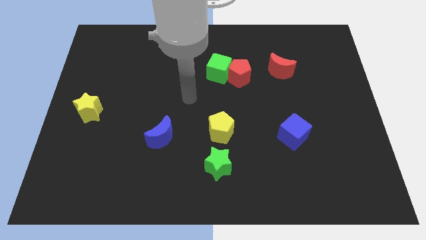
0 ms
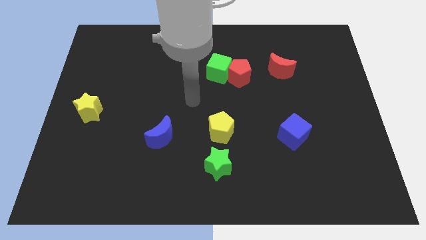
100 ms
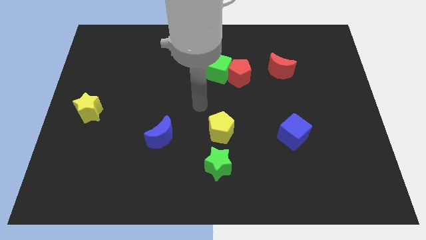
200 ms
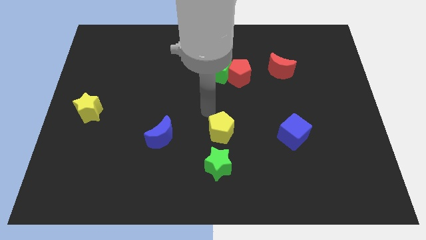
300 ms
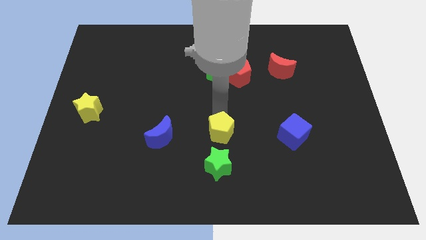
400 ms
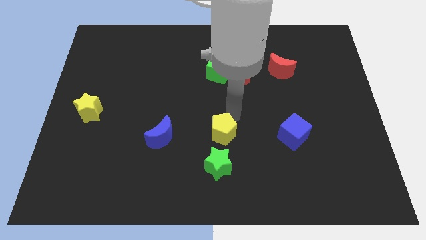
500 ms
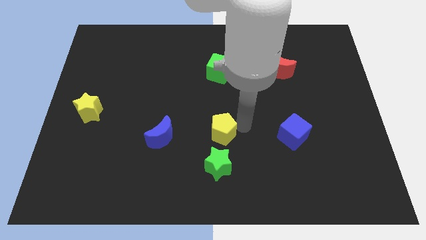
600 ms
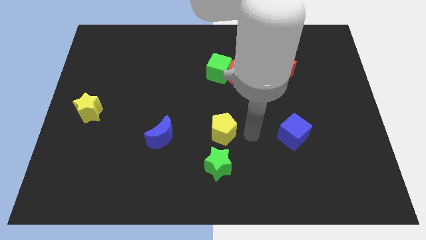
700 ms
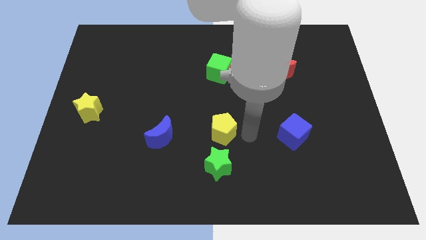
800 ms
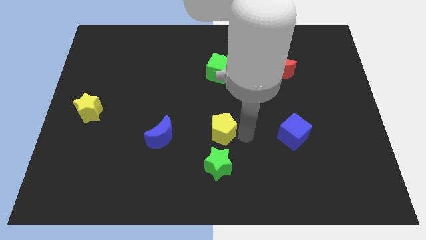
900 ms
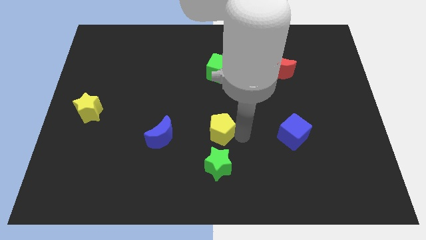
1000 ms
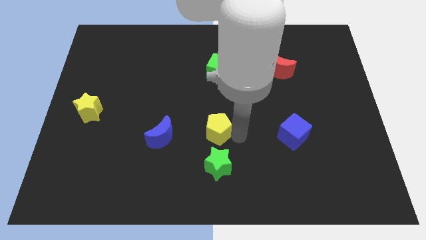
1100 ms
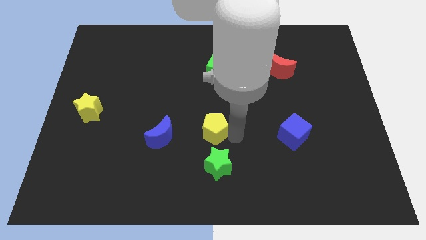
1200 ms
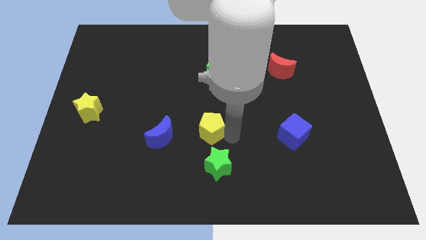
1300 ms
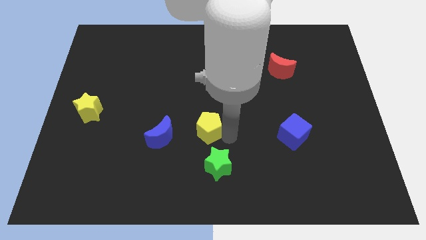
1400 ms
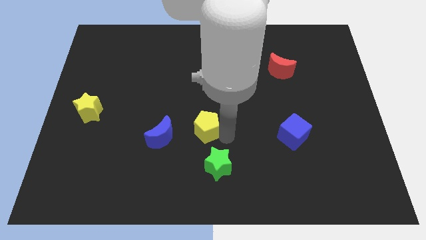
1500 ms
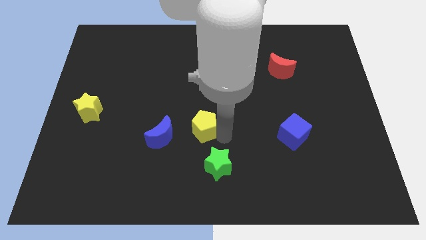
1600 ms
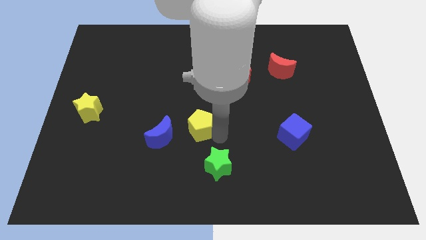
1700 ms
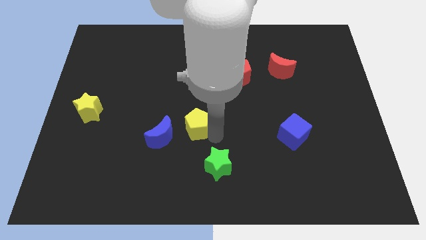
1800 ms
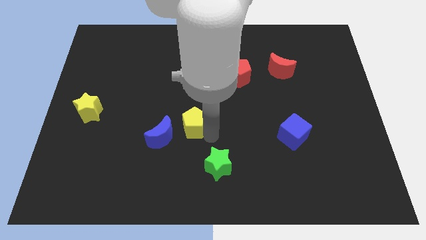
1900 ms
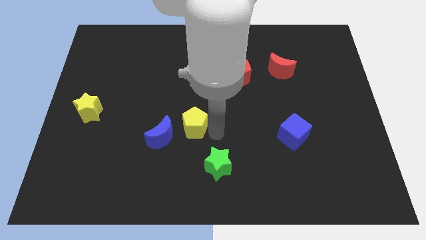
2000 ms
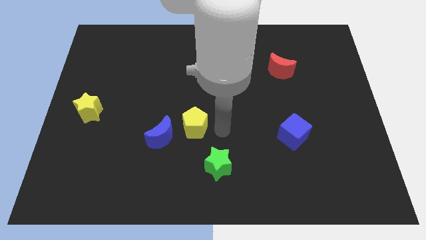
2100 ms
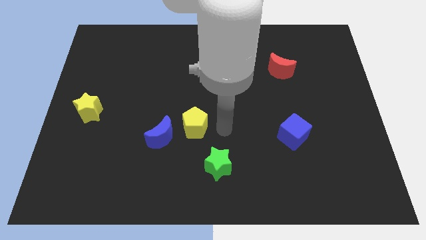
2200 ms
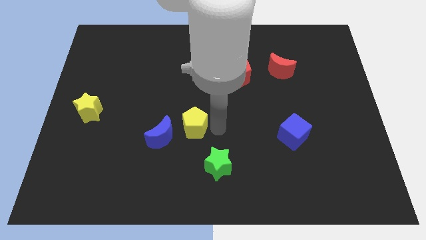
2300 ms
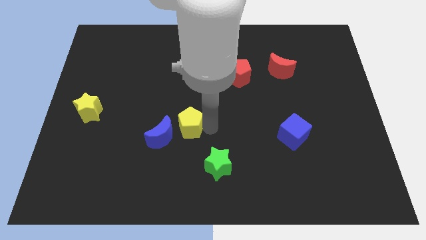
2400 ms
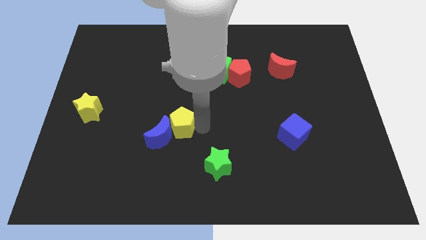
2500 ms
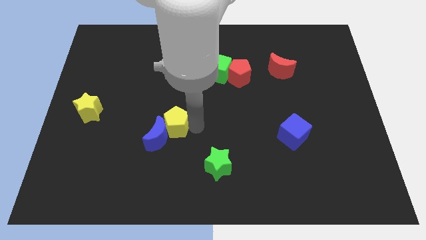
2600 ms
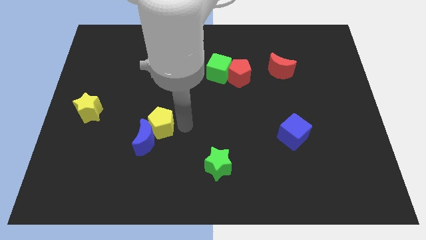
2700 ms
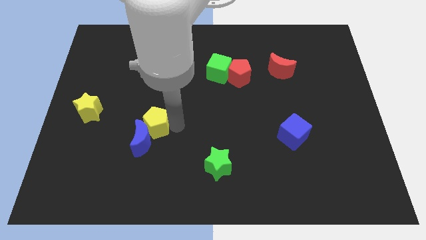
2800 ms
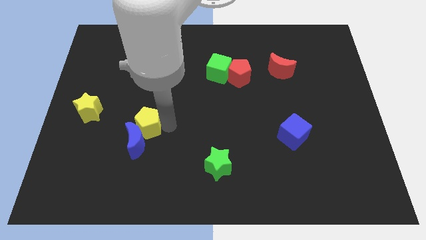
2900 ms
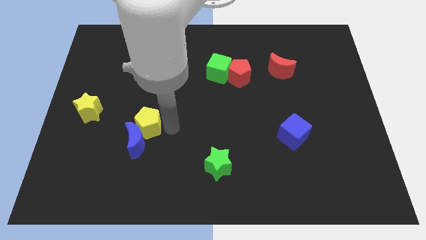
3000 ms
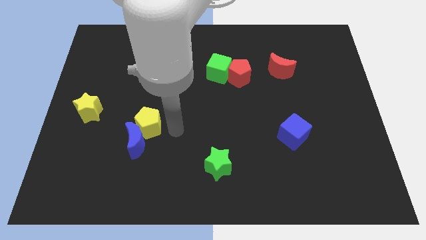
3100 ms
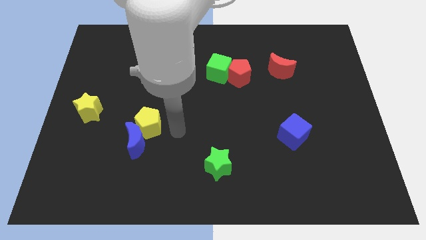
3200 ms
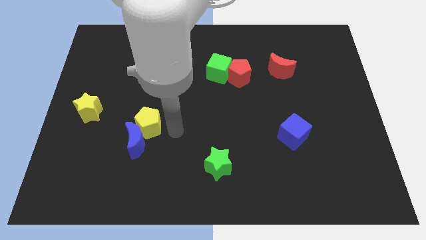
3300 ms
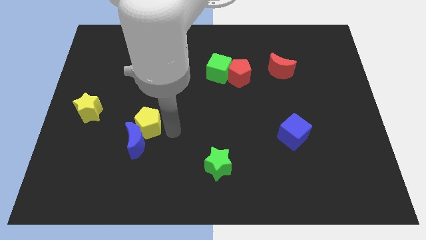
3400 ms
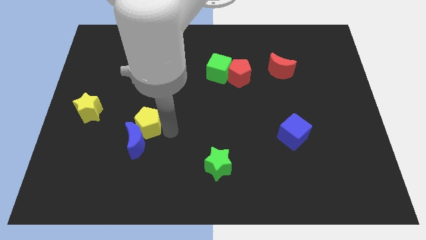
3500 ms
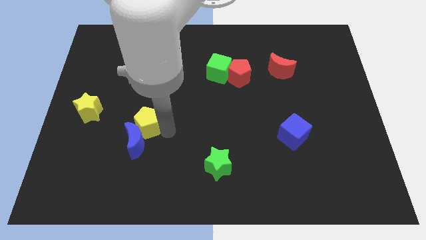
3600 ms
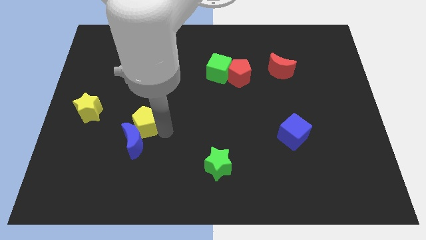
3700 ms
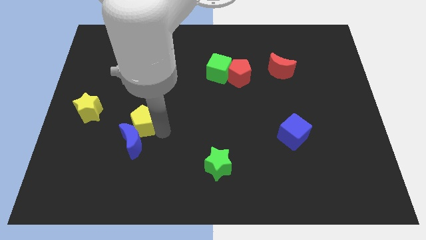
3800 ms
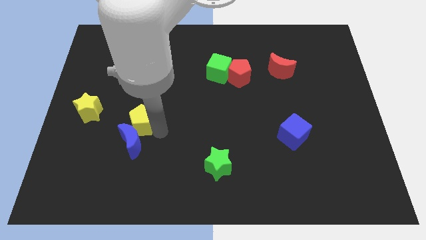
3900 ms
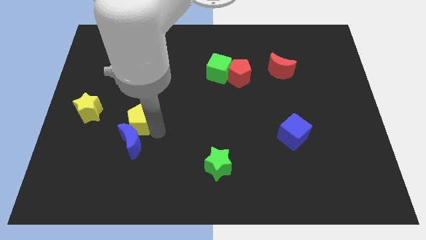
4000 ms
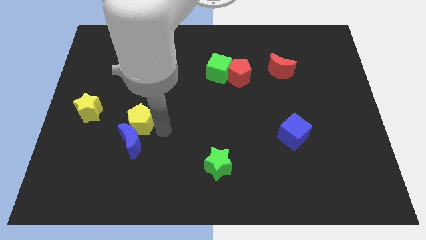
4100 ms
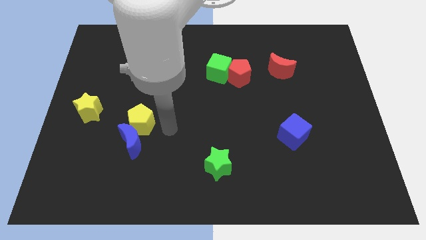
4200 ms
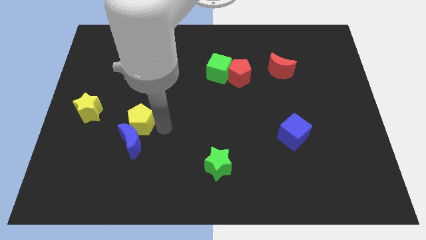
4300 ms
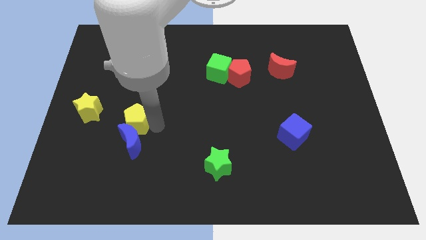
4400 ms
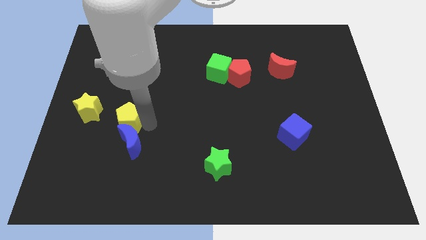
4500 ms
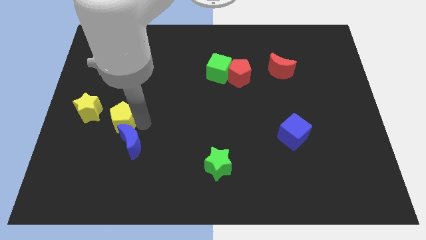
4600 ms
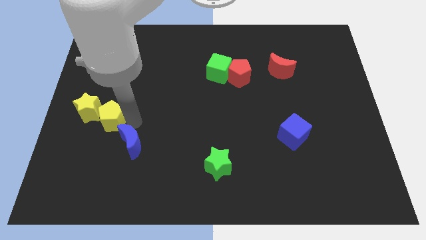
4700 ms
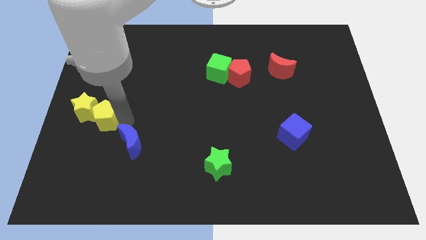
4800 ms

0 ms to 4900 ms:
put the yellow pentagon to the yellow star

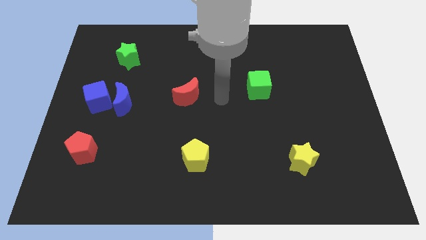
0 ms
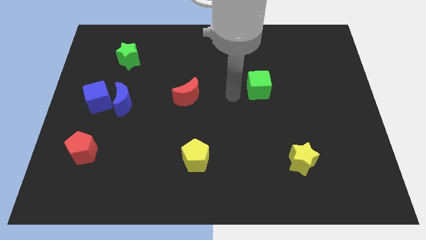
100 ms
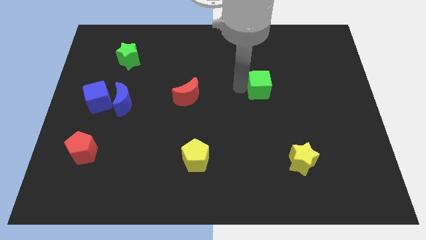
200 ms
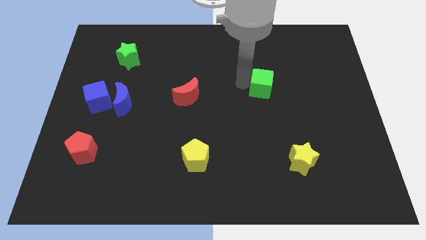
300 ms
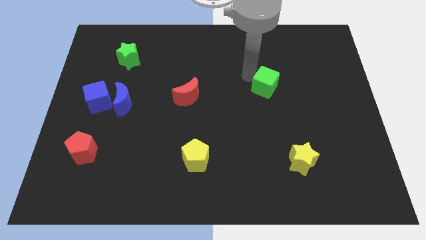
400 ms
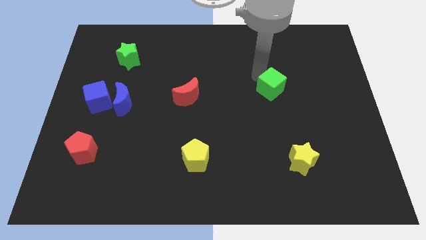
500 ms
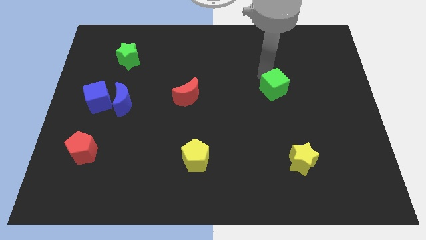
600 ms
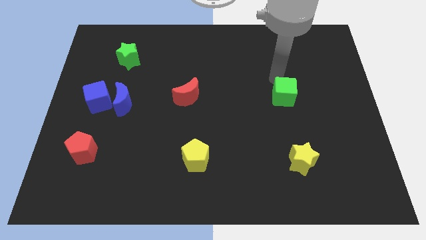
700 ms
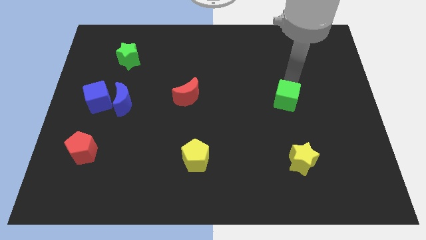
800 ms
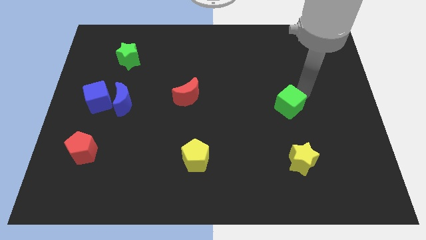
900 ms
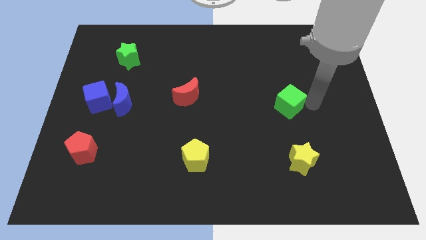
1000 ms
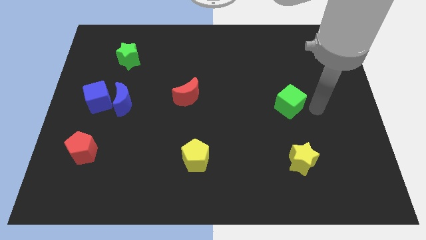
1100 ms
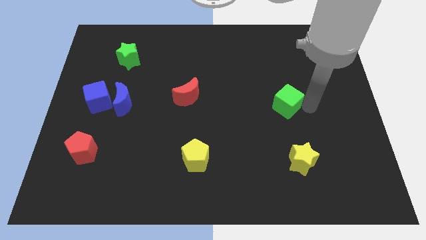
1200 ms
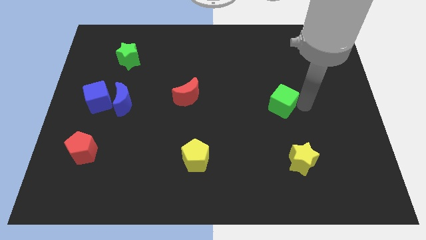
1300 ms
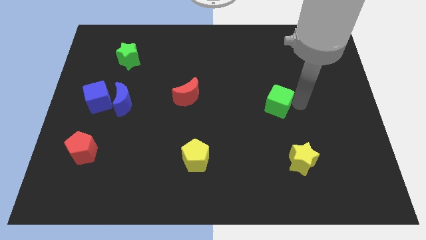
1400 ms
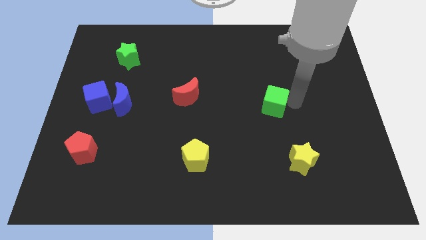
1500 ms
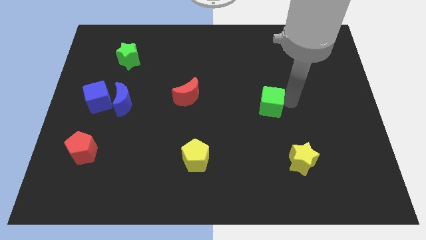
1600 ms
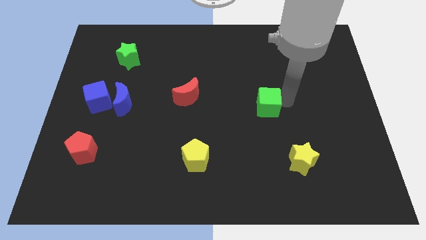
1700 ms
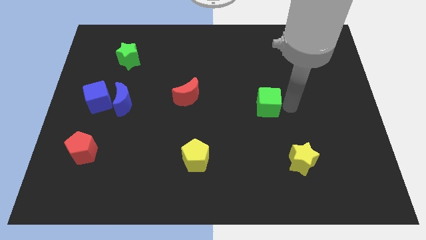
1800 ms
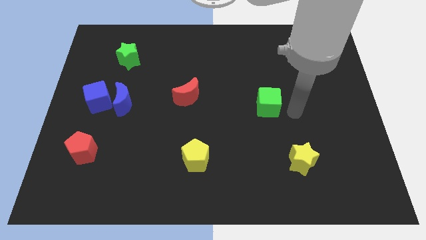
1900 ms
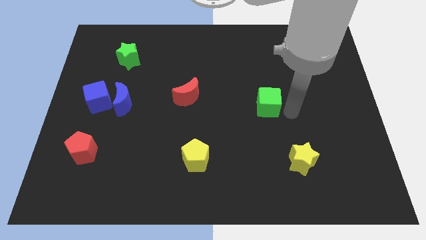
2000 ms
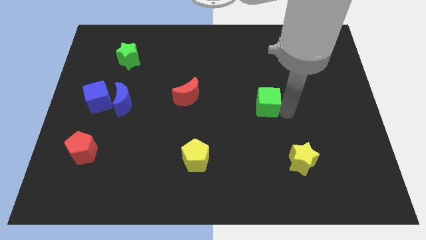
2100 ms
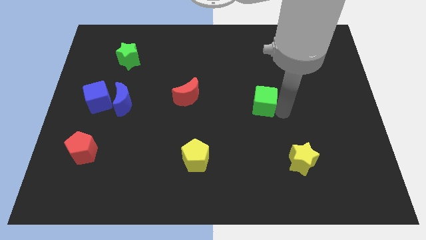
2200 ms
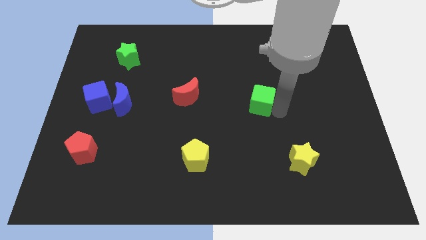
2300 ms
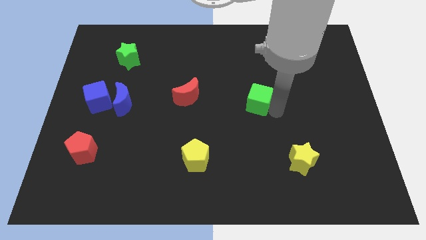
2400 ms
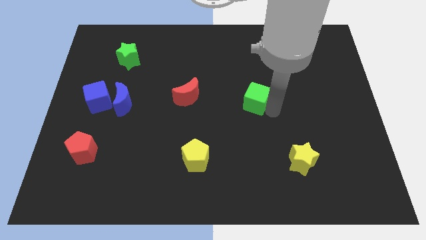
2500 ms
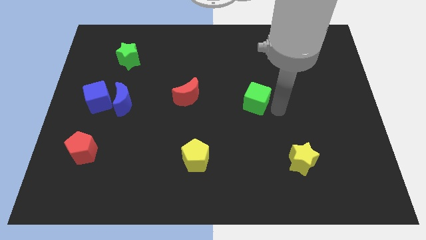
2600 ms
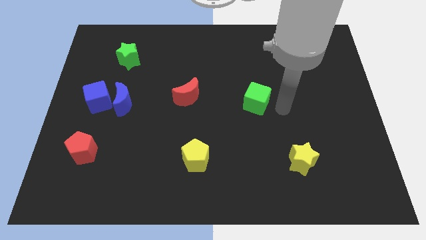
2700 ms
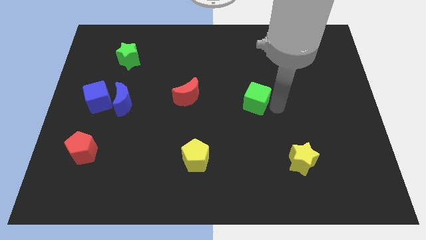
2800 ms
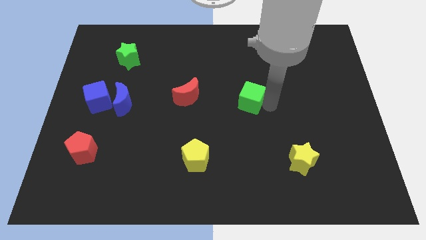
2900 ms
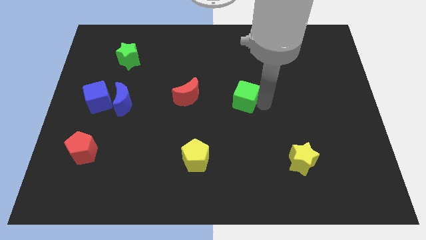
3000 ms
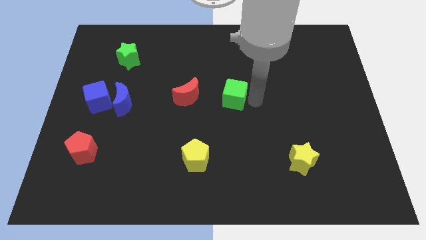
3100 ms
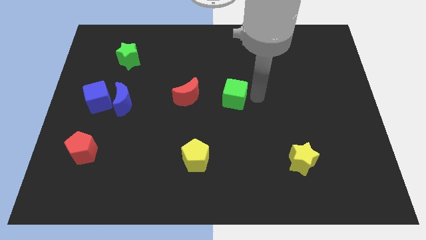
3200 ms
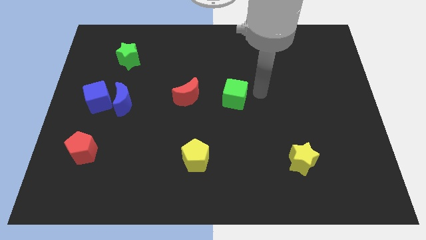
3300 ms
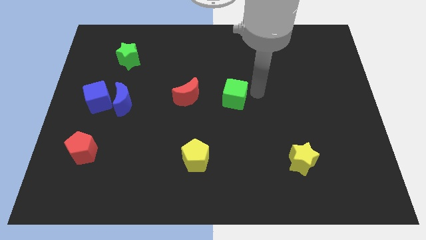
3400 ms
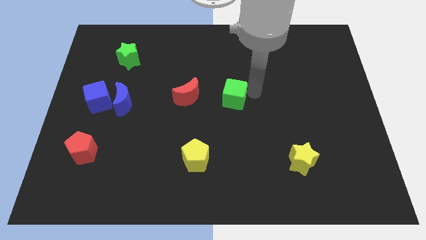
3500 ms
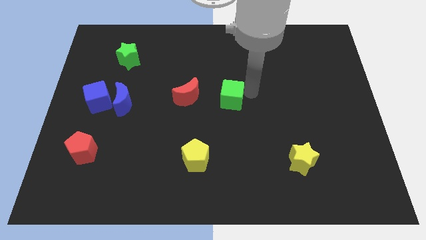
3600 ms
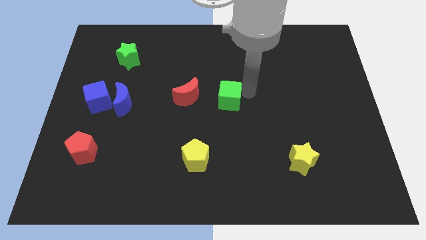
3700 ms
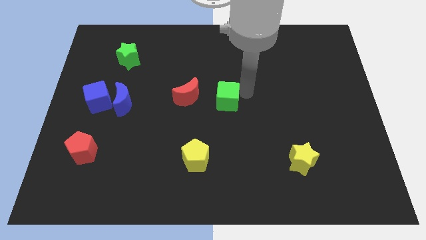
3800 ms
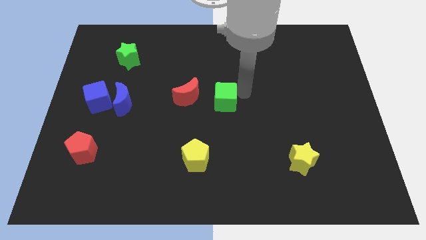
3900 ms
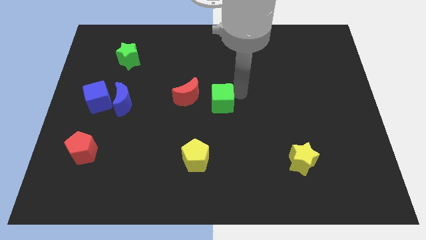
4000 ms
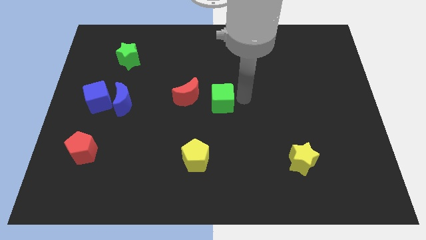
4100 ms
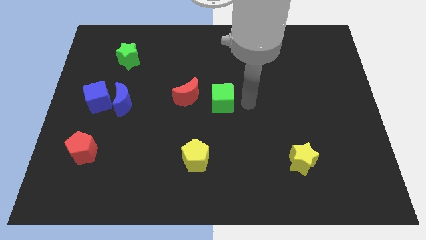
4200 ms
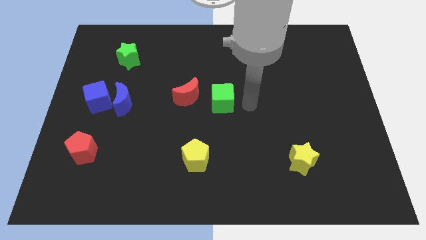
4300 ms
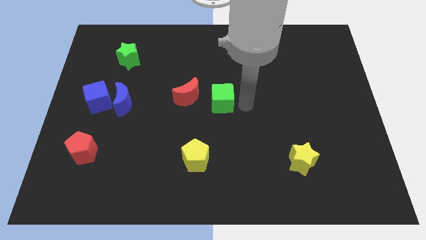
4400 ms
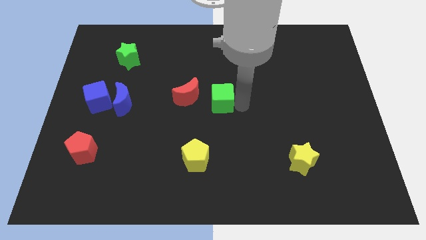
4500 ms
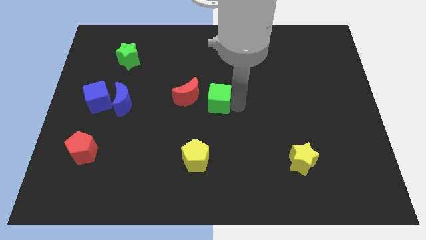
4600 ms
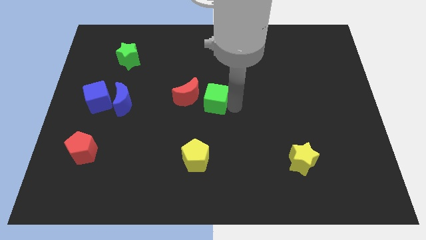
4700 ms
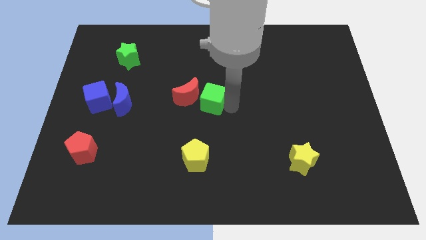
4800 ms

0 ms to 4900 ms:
push the green cube next to the red moon
